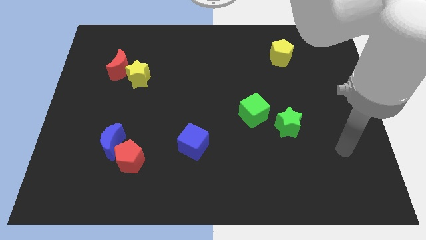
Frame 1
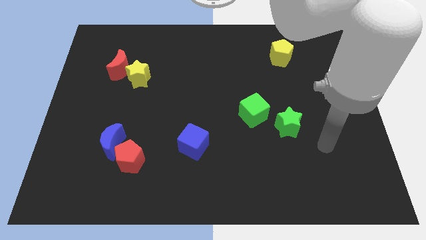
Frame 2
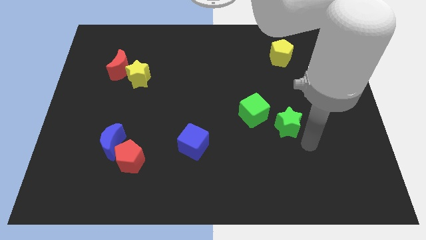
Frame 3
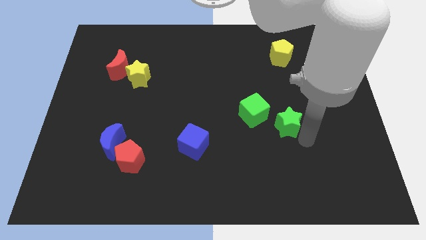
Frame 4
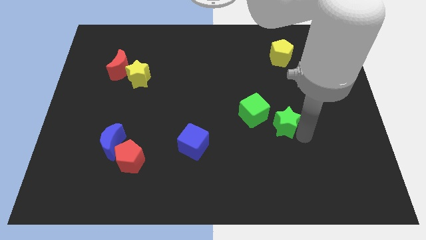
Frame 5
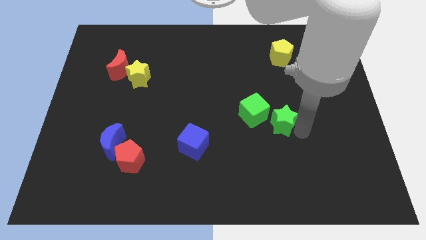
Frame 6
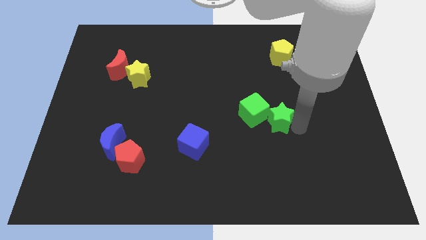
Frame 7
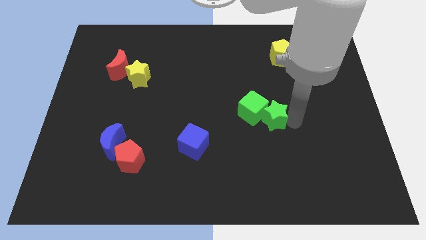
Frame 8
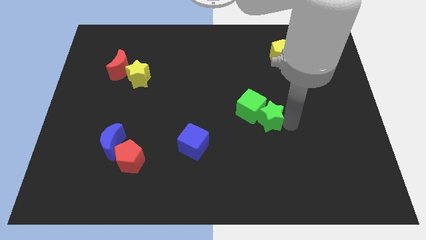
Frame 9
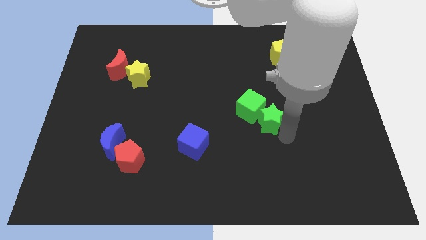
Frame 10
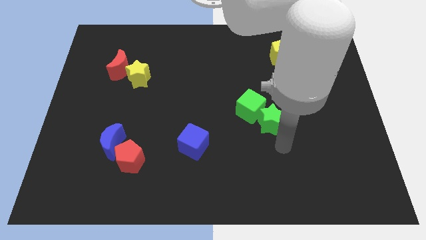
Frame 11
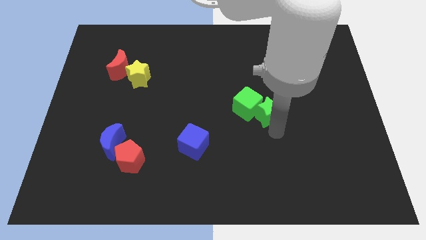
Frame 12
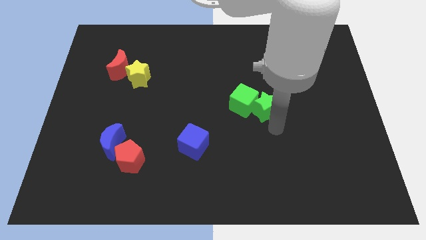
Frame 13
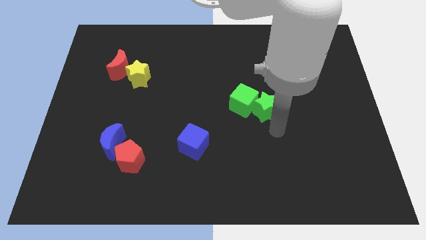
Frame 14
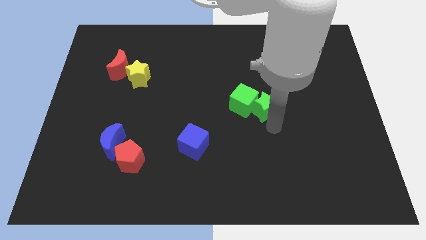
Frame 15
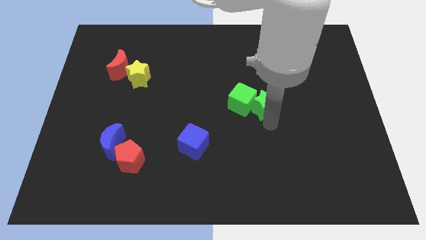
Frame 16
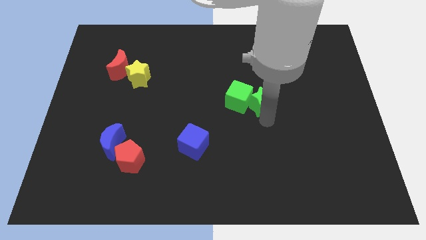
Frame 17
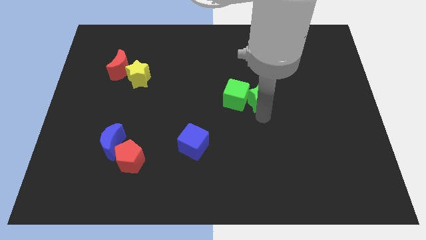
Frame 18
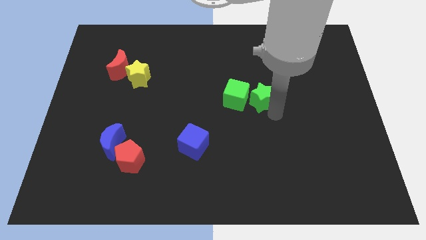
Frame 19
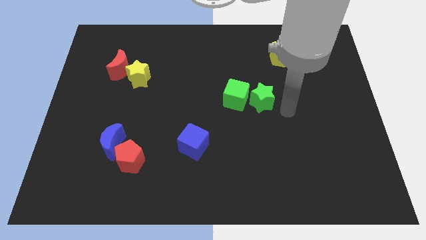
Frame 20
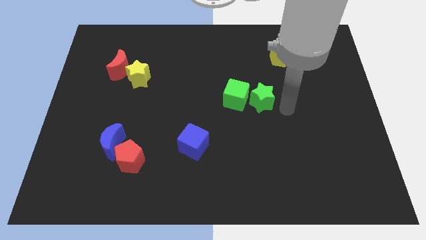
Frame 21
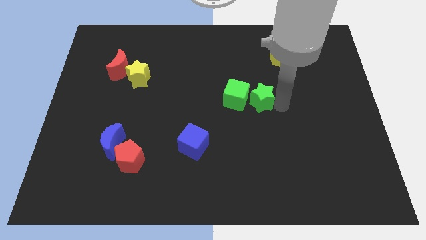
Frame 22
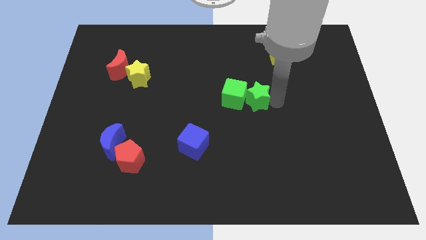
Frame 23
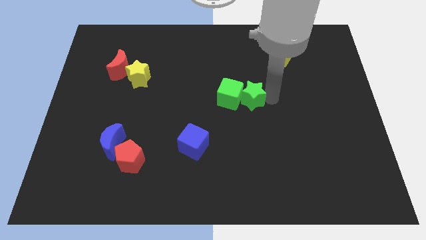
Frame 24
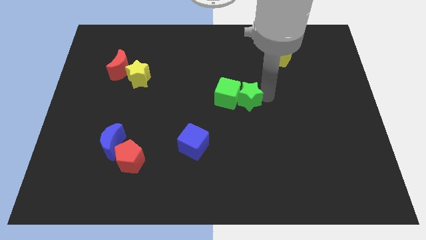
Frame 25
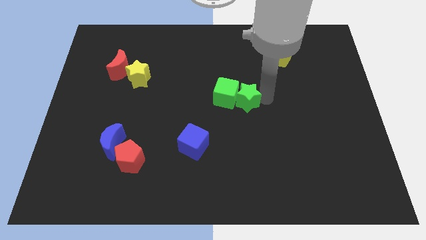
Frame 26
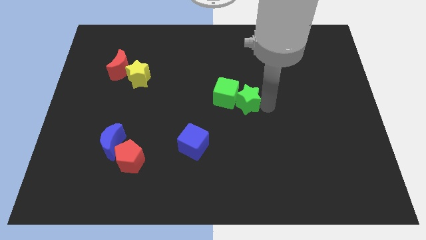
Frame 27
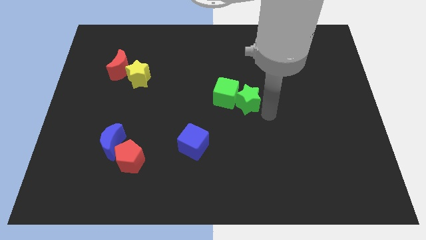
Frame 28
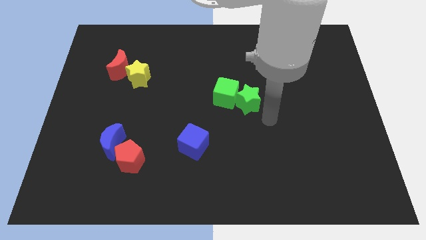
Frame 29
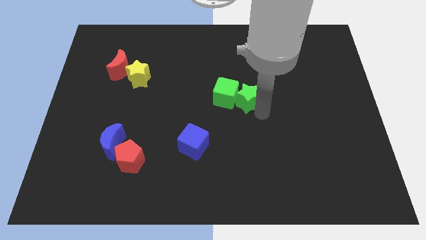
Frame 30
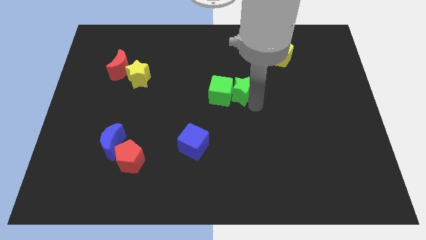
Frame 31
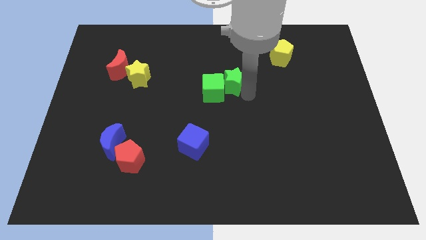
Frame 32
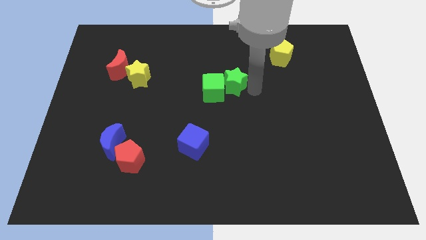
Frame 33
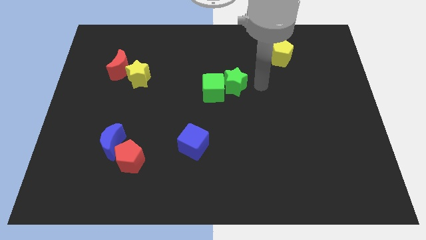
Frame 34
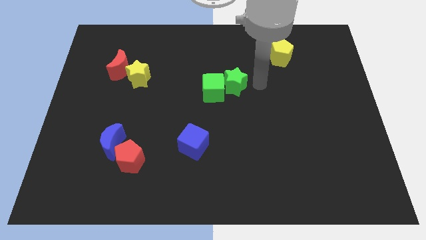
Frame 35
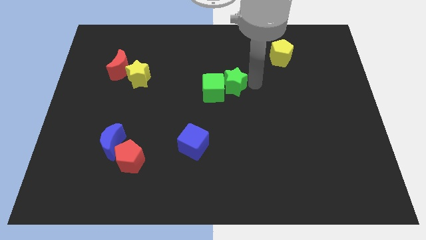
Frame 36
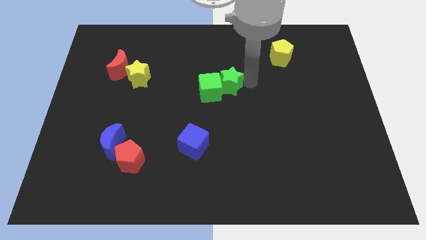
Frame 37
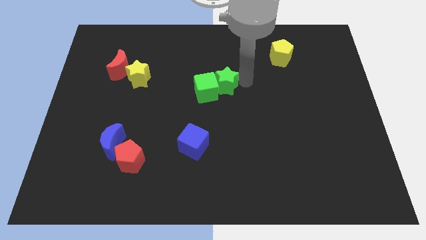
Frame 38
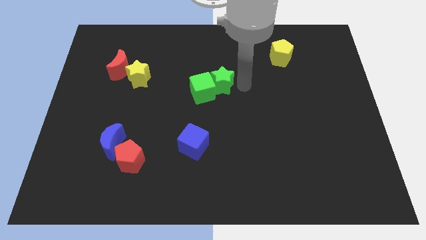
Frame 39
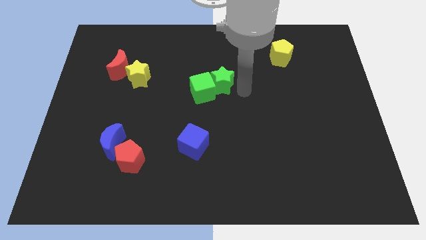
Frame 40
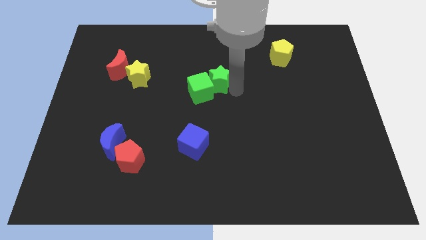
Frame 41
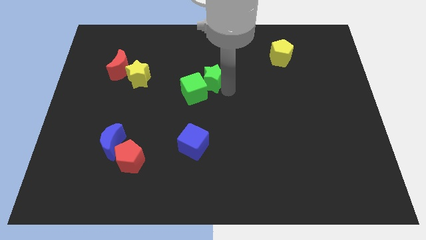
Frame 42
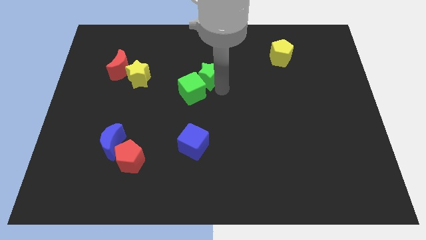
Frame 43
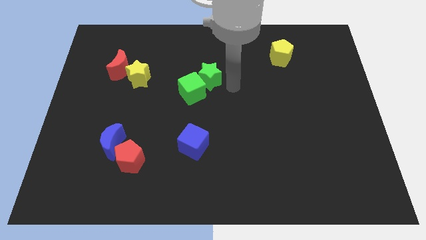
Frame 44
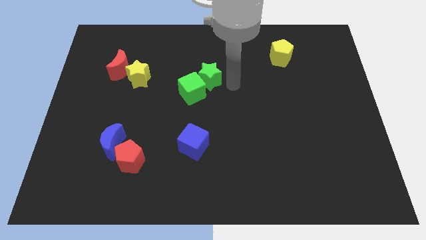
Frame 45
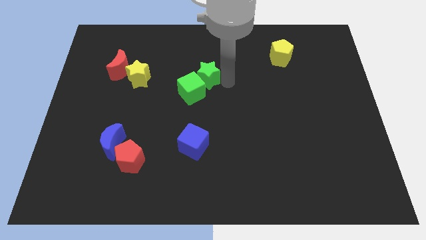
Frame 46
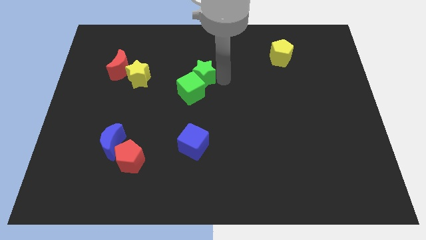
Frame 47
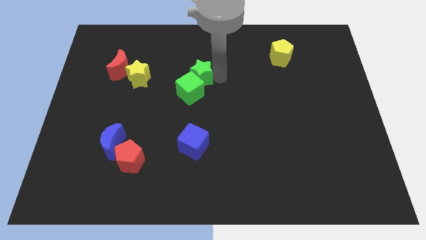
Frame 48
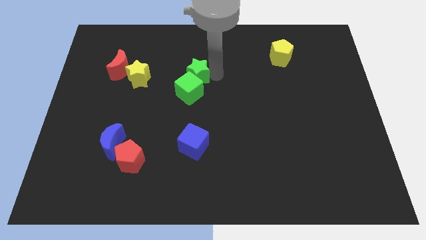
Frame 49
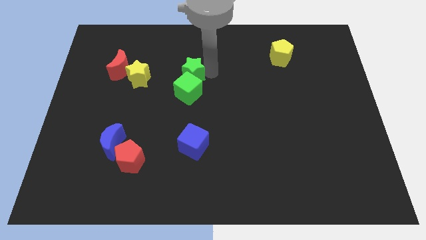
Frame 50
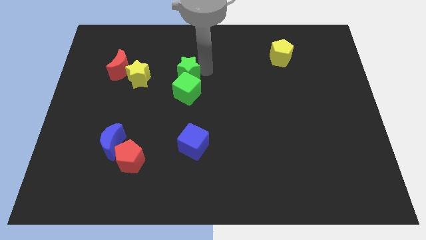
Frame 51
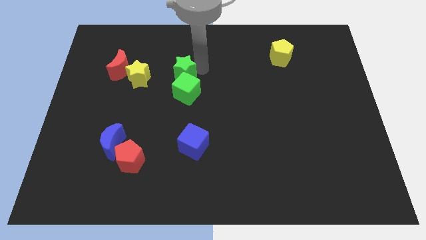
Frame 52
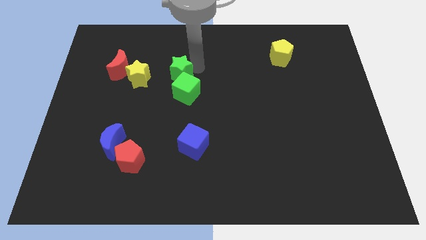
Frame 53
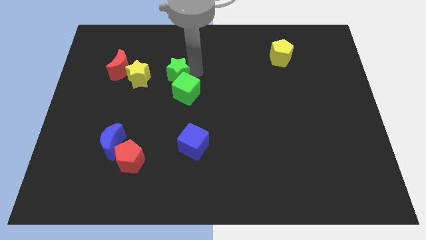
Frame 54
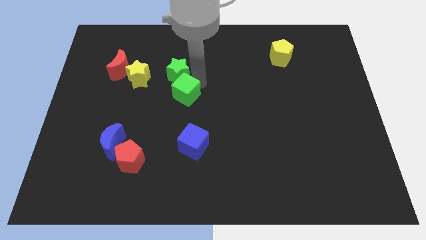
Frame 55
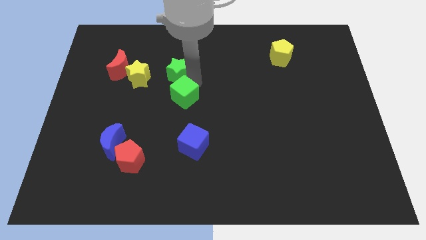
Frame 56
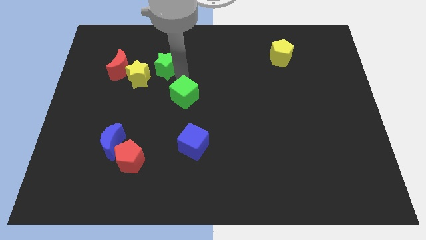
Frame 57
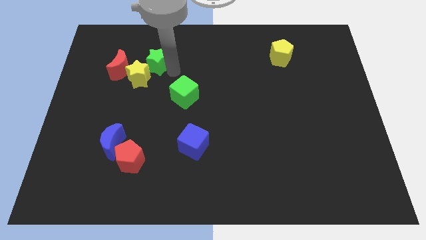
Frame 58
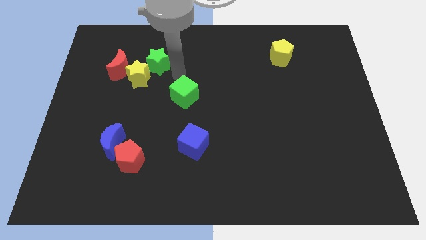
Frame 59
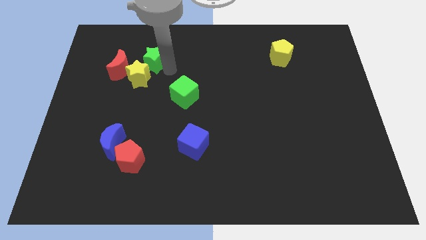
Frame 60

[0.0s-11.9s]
push the green star to the top right of the red moon

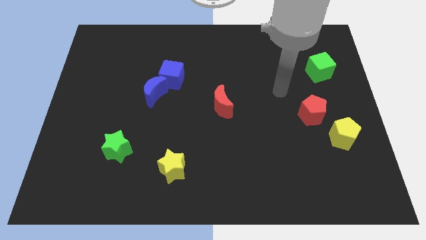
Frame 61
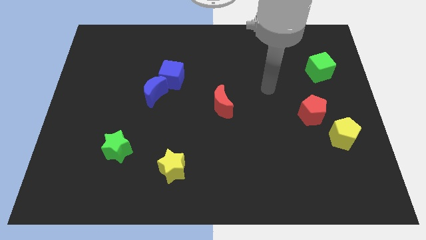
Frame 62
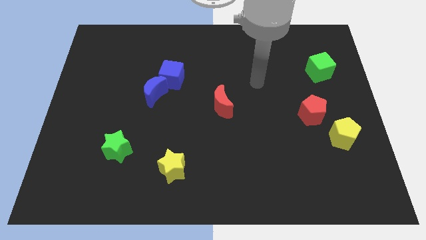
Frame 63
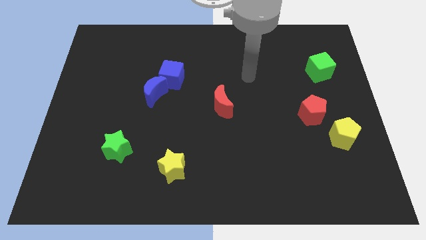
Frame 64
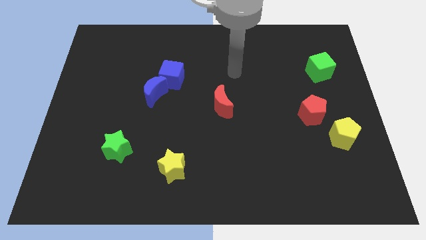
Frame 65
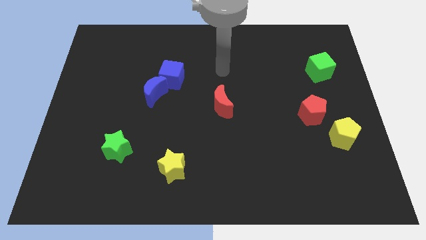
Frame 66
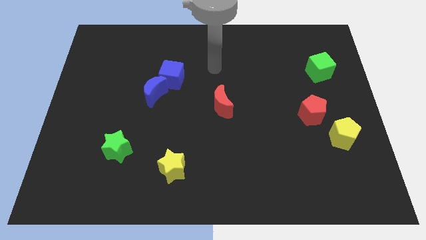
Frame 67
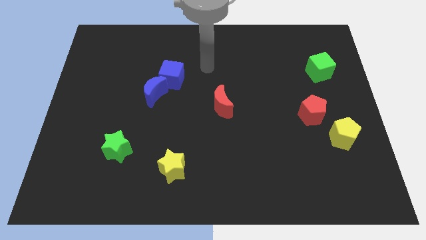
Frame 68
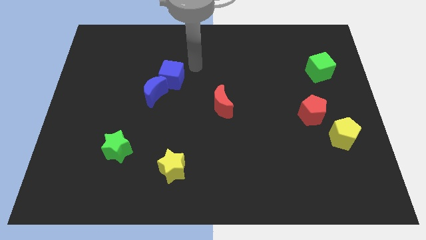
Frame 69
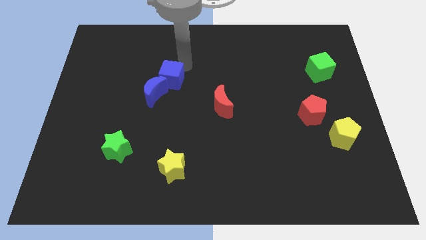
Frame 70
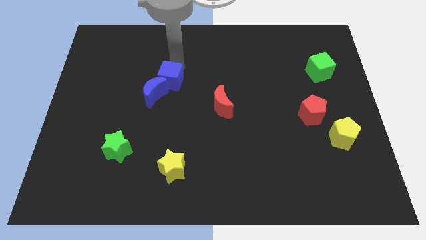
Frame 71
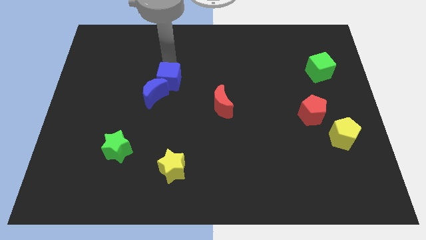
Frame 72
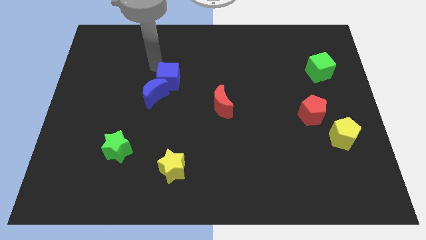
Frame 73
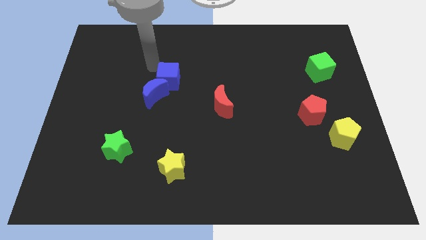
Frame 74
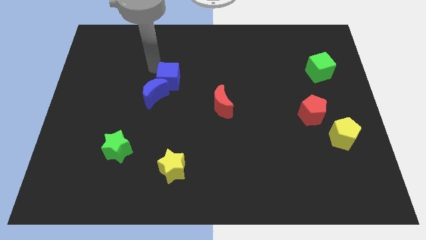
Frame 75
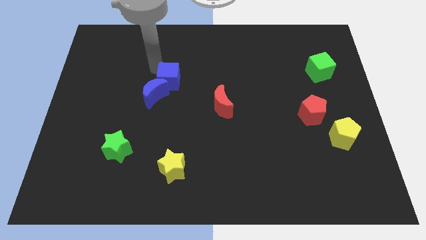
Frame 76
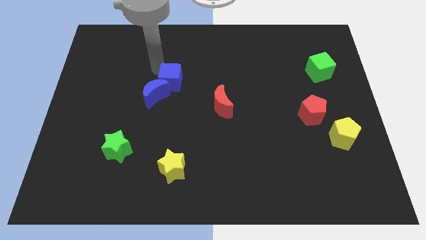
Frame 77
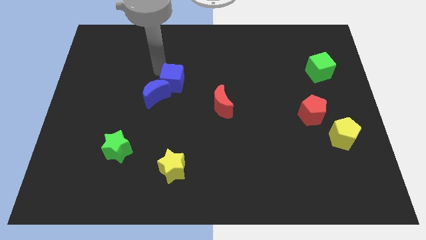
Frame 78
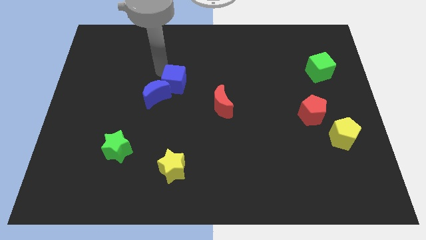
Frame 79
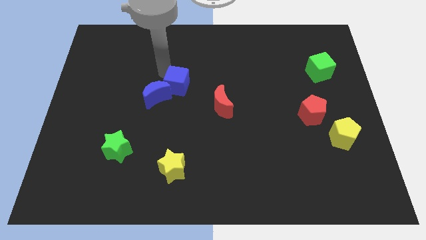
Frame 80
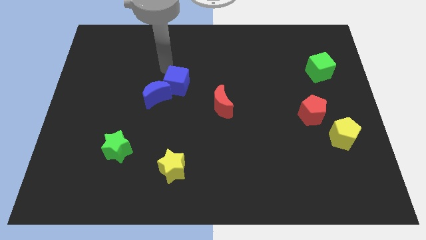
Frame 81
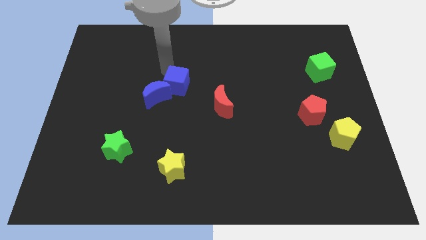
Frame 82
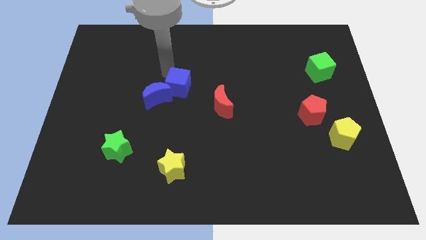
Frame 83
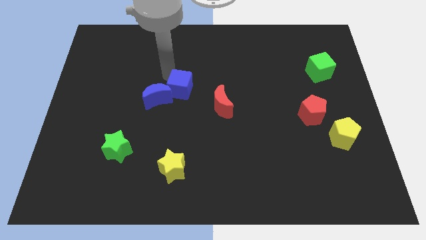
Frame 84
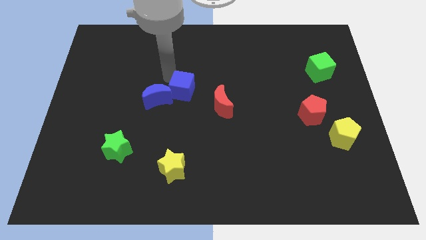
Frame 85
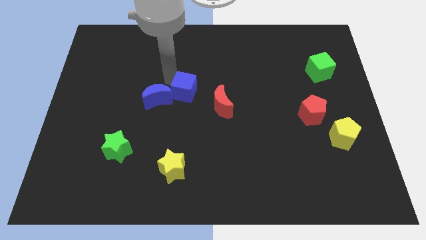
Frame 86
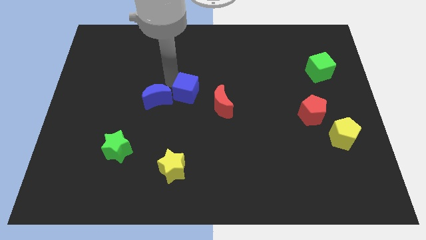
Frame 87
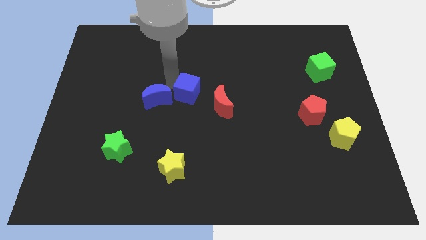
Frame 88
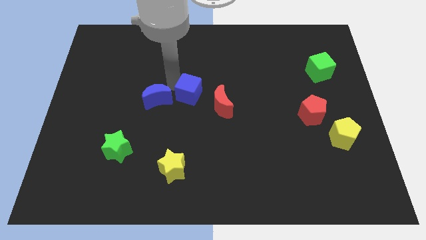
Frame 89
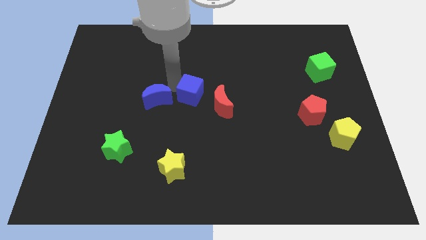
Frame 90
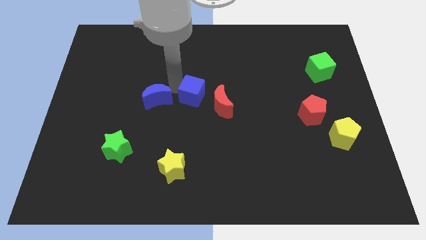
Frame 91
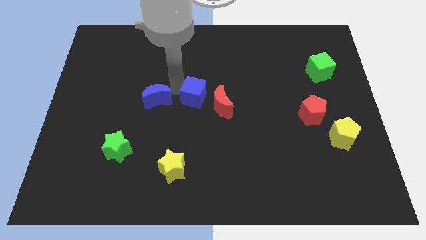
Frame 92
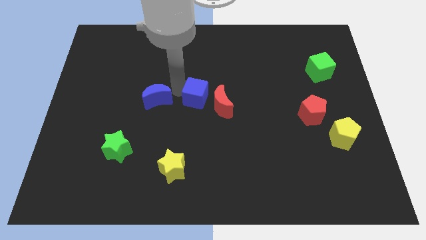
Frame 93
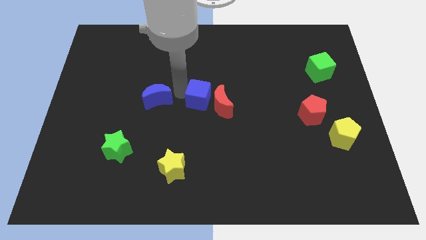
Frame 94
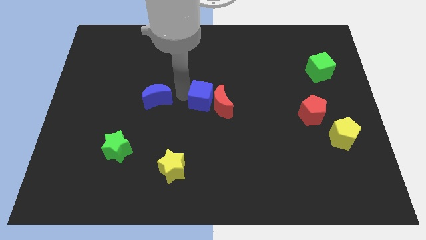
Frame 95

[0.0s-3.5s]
push the blue cube to the bottom left side of the red moon
